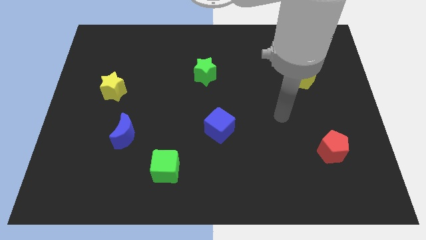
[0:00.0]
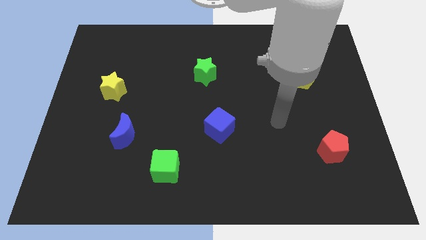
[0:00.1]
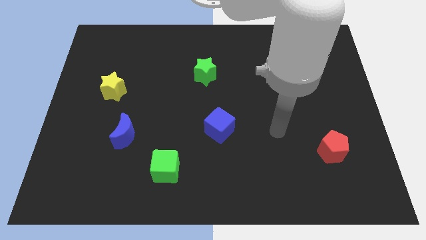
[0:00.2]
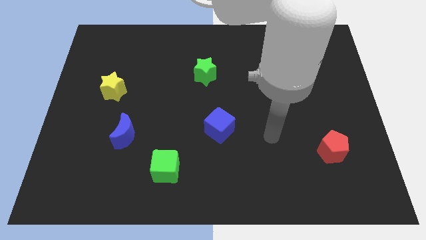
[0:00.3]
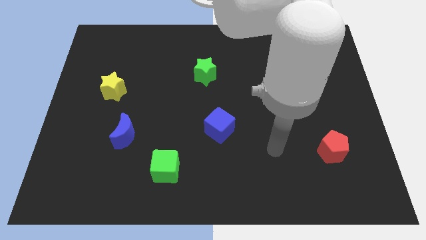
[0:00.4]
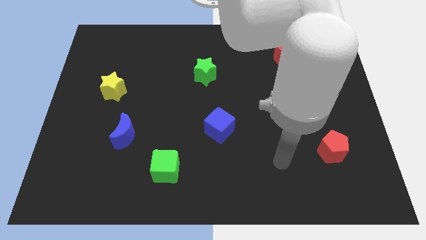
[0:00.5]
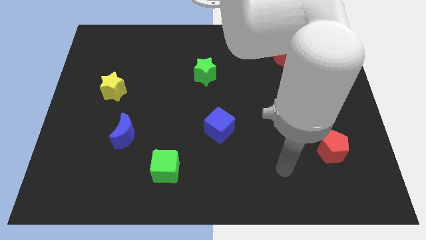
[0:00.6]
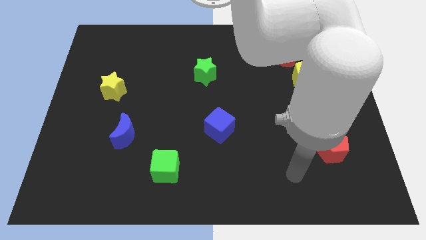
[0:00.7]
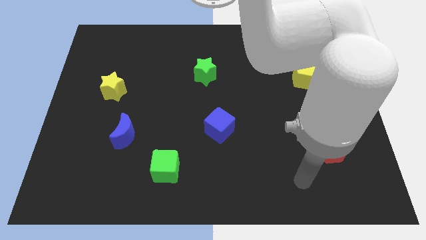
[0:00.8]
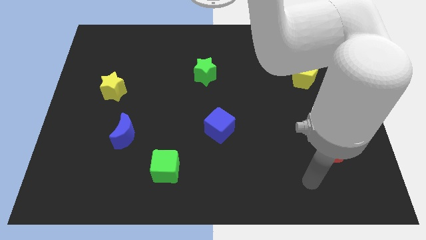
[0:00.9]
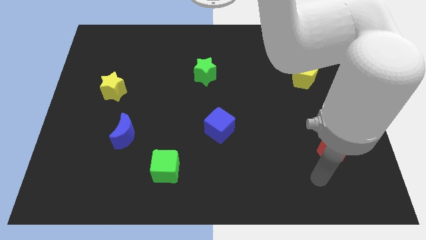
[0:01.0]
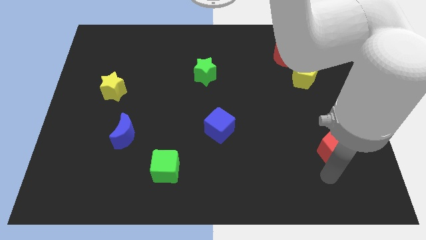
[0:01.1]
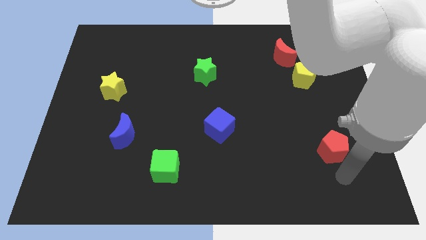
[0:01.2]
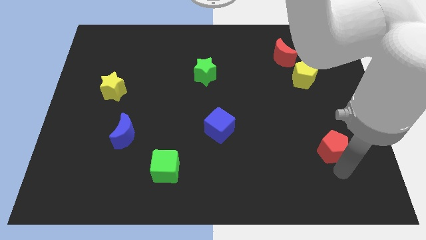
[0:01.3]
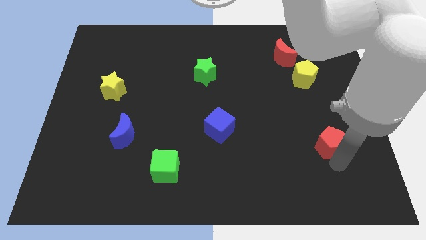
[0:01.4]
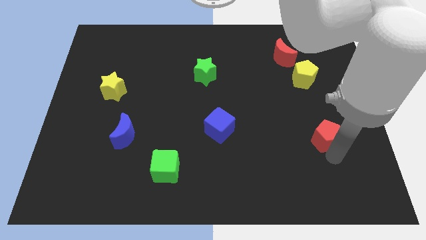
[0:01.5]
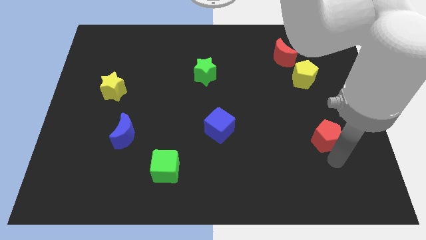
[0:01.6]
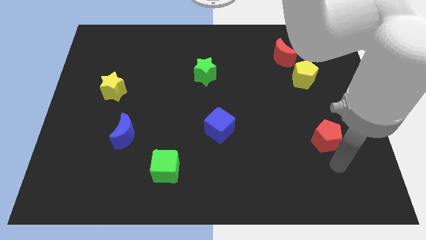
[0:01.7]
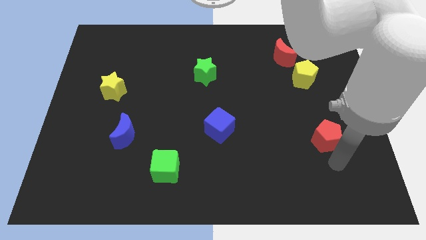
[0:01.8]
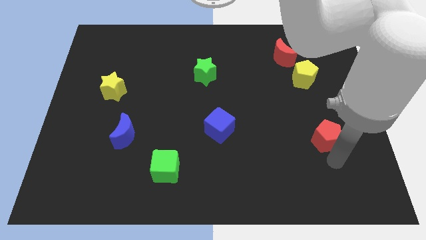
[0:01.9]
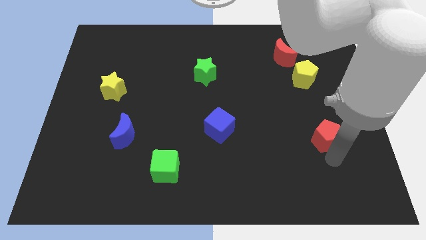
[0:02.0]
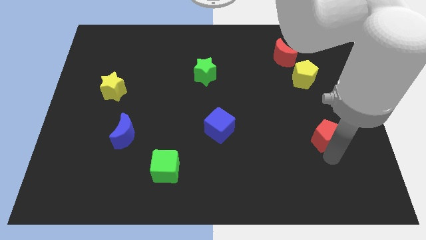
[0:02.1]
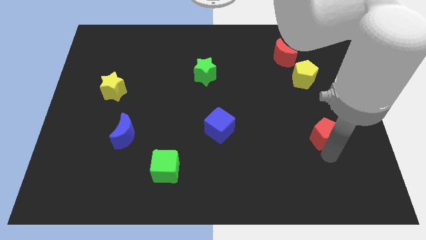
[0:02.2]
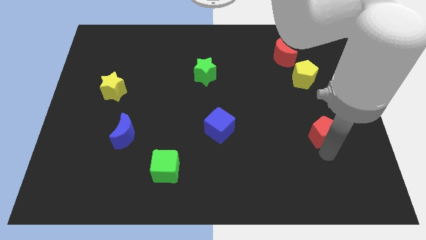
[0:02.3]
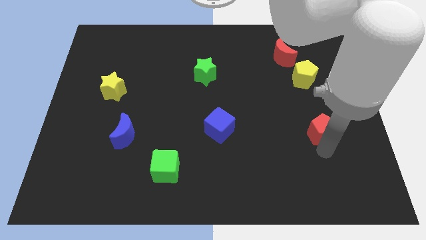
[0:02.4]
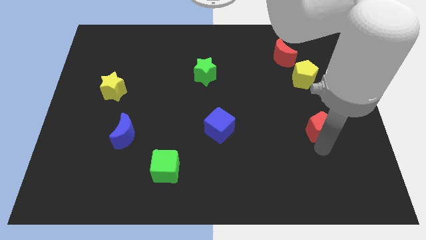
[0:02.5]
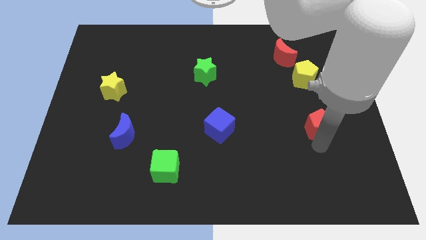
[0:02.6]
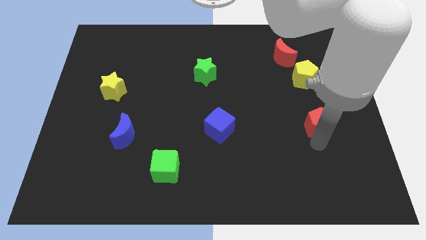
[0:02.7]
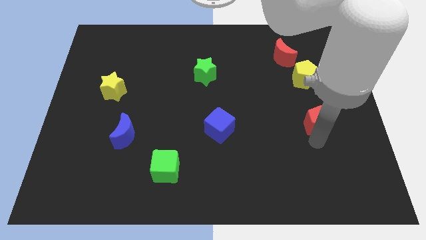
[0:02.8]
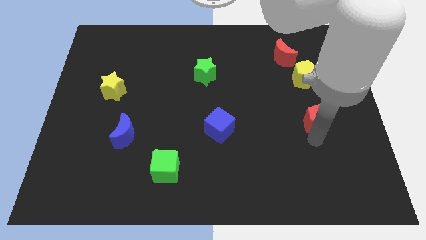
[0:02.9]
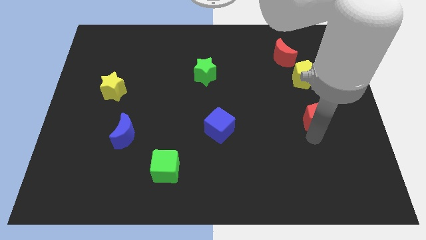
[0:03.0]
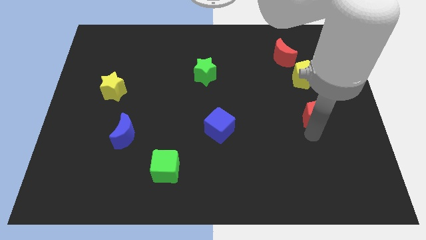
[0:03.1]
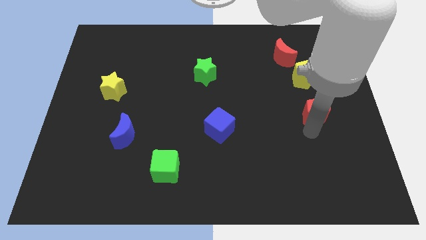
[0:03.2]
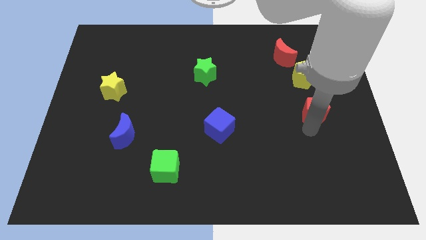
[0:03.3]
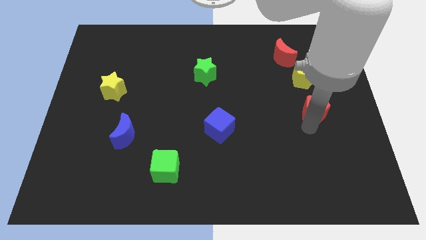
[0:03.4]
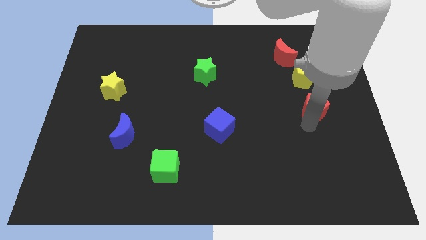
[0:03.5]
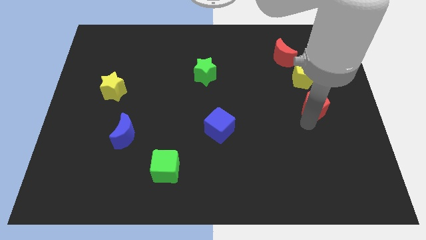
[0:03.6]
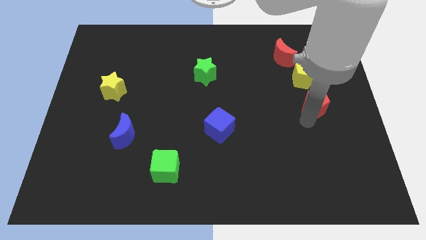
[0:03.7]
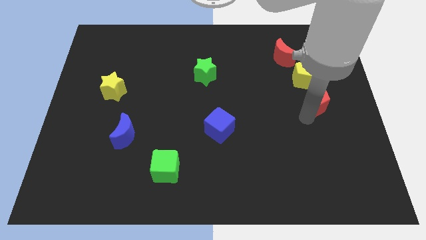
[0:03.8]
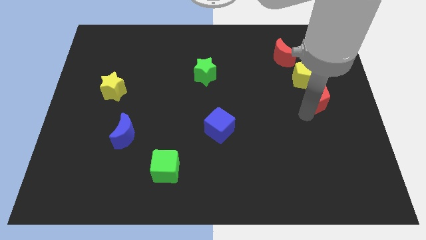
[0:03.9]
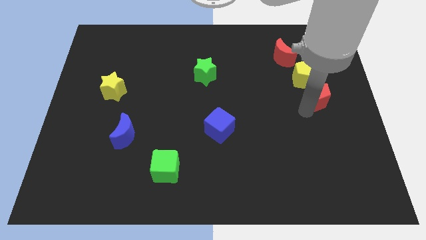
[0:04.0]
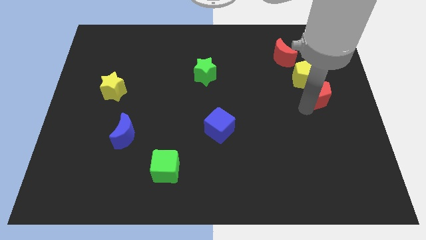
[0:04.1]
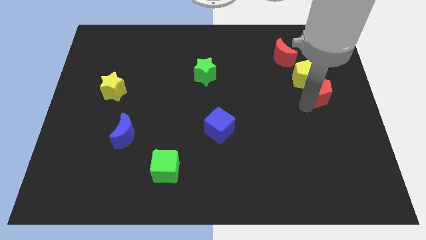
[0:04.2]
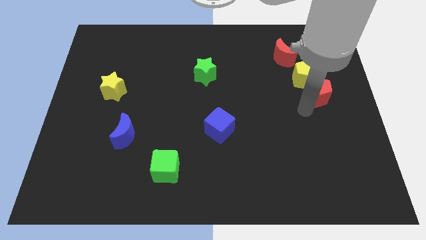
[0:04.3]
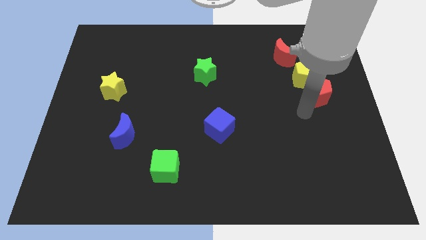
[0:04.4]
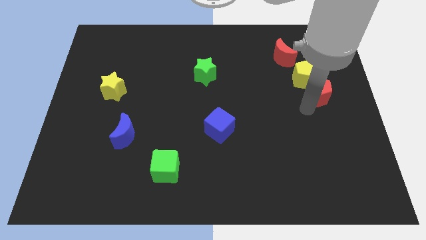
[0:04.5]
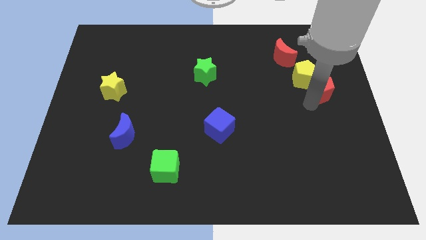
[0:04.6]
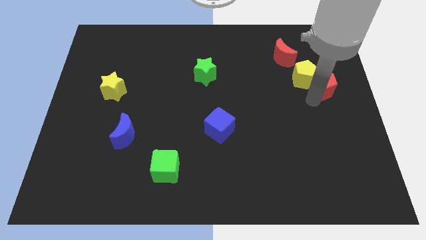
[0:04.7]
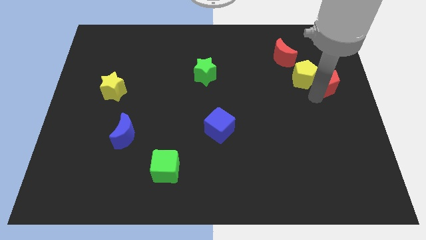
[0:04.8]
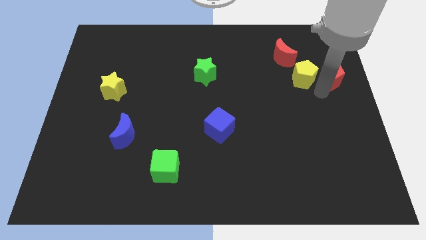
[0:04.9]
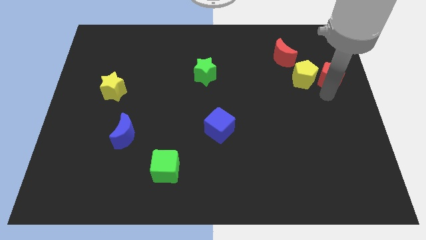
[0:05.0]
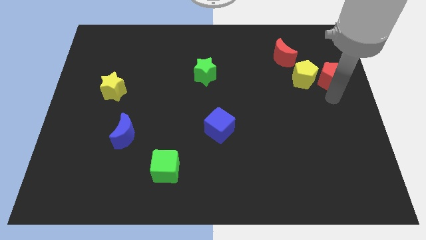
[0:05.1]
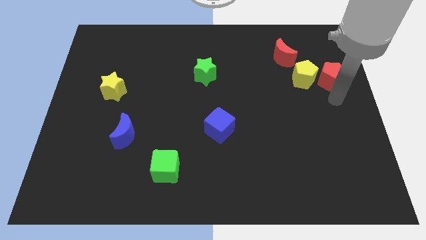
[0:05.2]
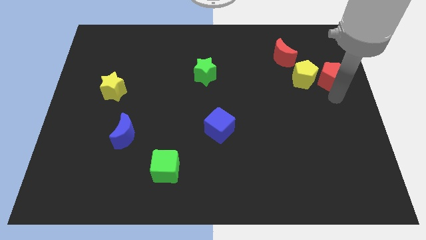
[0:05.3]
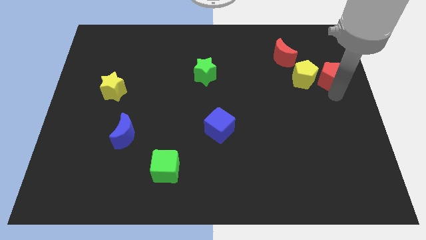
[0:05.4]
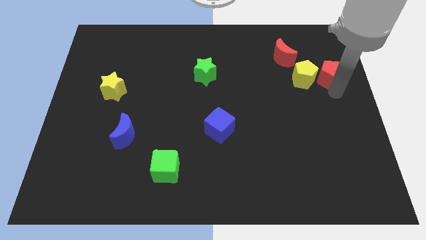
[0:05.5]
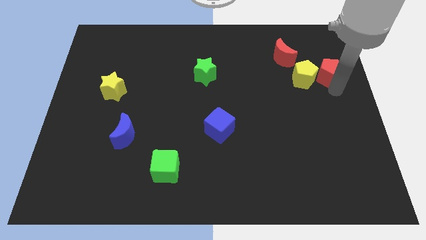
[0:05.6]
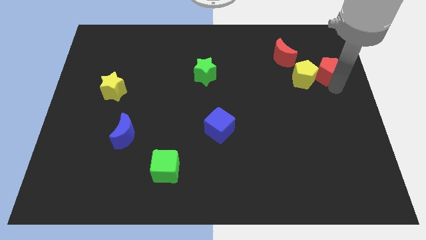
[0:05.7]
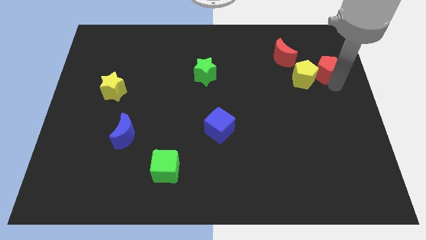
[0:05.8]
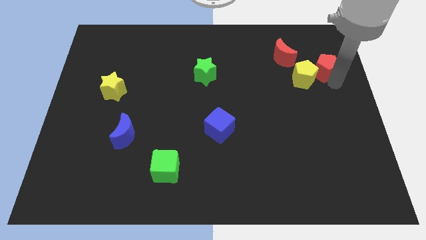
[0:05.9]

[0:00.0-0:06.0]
push the red pentagon to the right side of the red moon

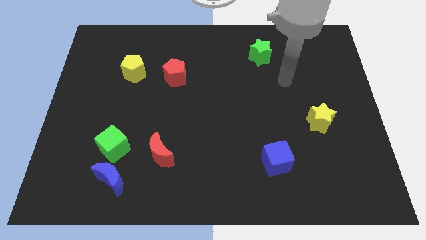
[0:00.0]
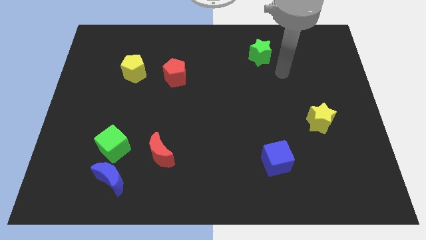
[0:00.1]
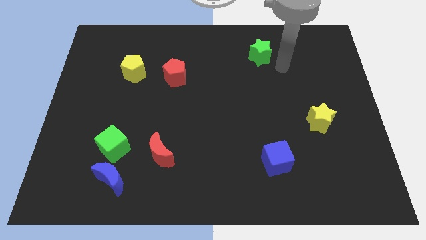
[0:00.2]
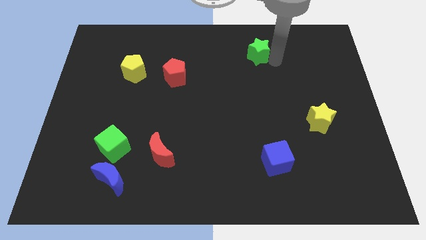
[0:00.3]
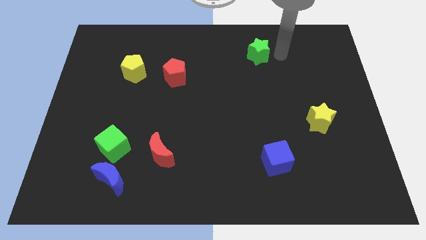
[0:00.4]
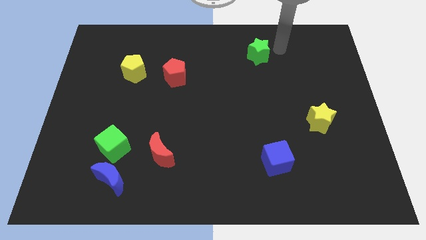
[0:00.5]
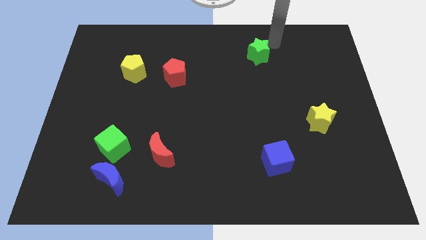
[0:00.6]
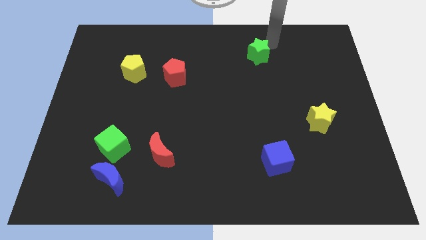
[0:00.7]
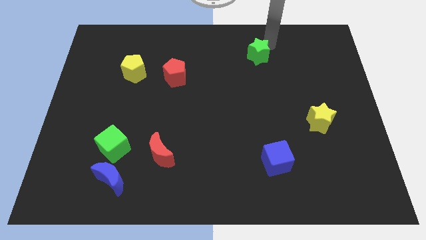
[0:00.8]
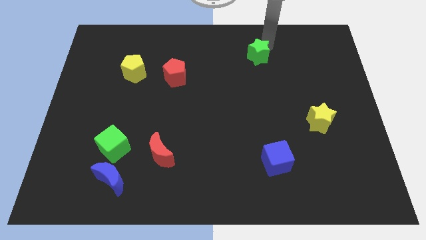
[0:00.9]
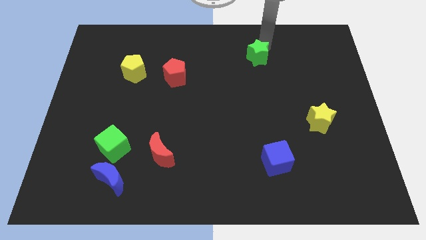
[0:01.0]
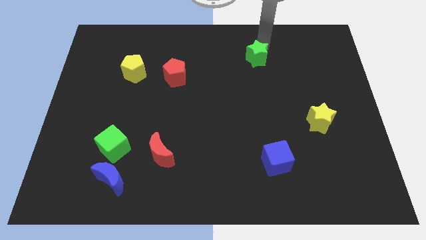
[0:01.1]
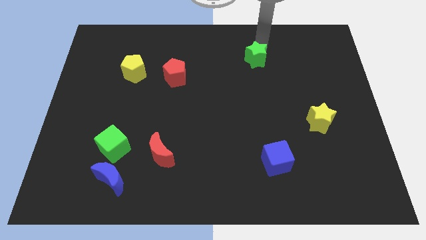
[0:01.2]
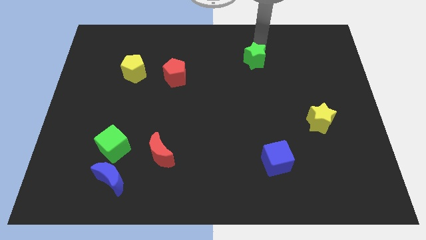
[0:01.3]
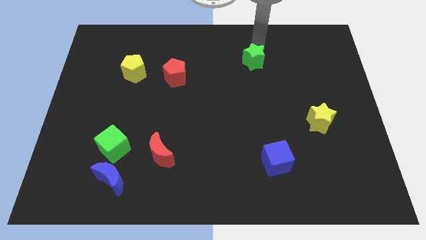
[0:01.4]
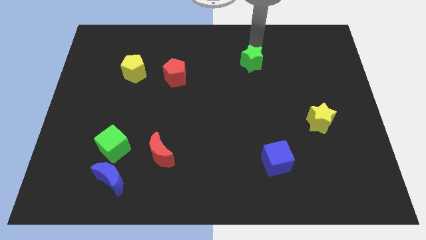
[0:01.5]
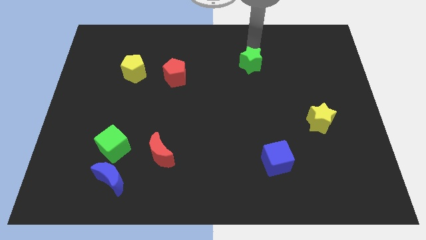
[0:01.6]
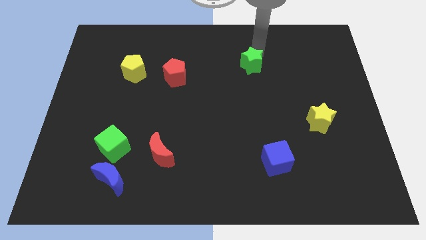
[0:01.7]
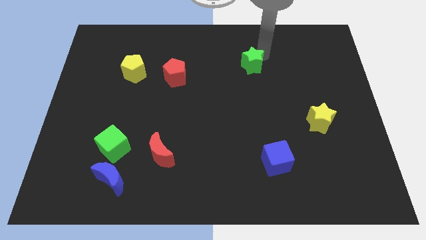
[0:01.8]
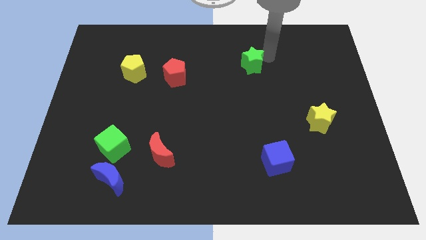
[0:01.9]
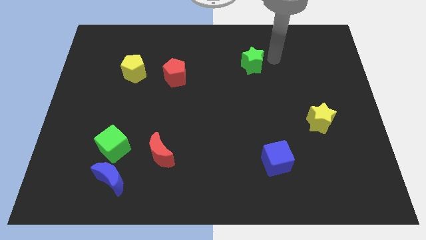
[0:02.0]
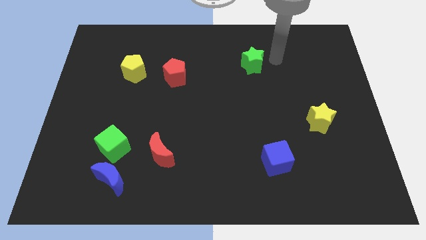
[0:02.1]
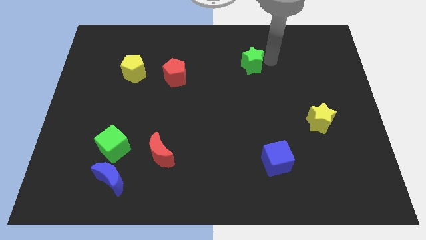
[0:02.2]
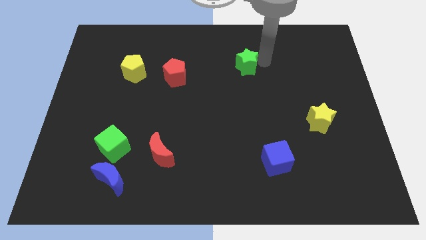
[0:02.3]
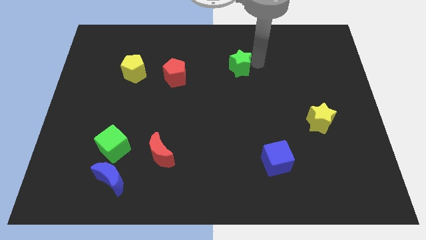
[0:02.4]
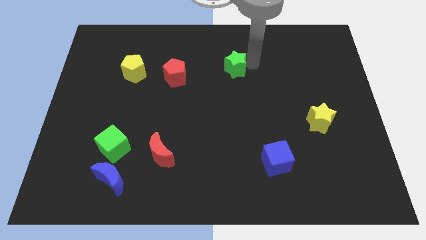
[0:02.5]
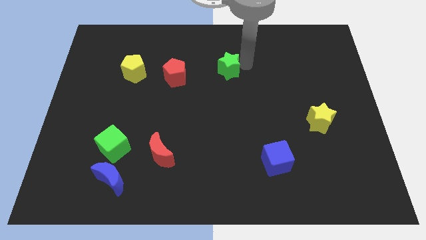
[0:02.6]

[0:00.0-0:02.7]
slide the green star just right of the red pentagon
